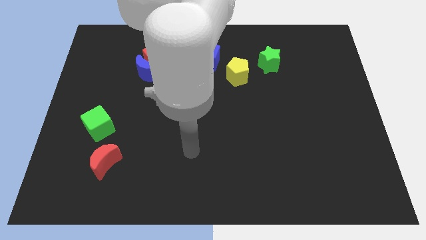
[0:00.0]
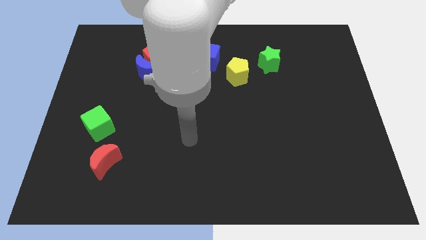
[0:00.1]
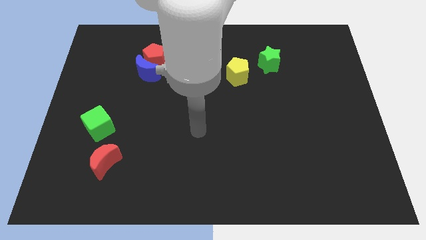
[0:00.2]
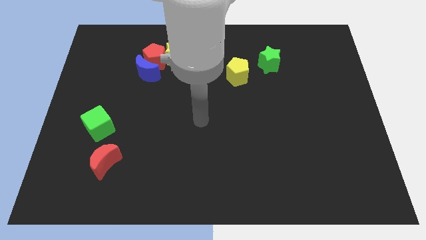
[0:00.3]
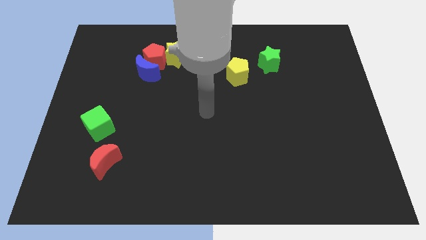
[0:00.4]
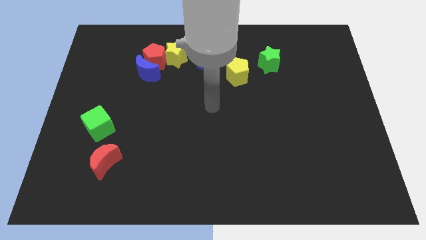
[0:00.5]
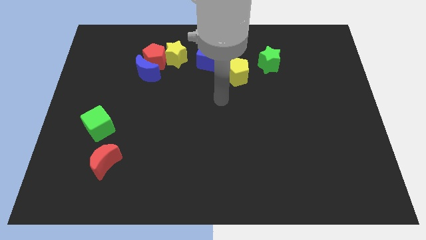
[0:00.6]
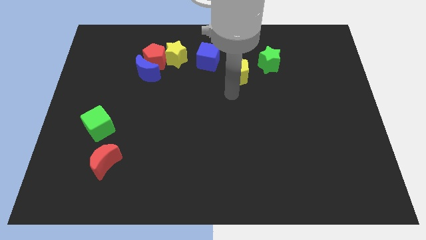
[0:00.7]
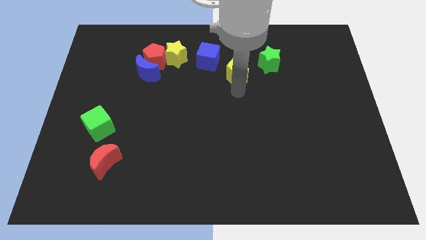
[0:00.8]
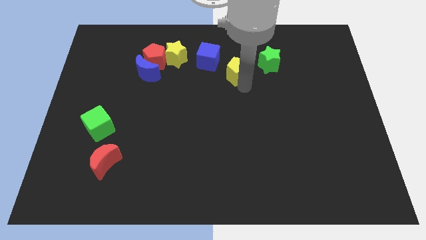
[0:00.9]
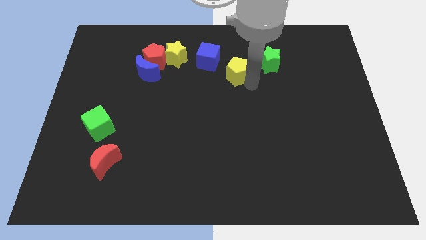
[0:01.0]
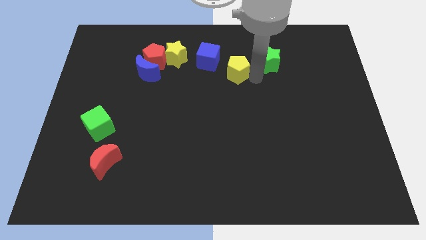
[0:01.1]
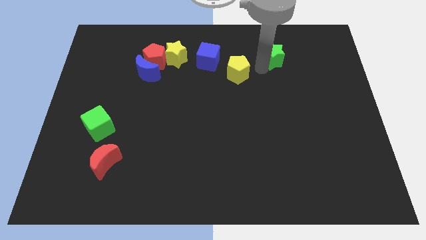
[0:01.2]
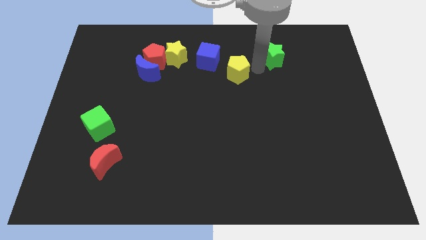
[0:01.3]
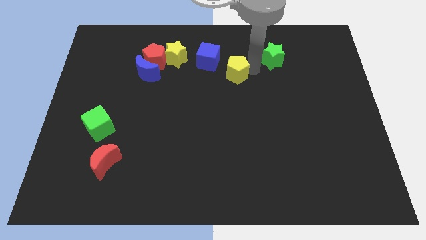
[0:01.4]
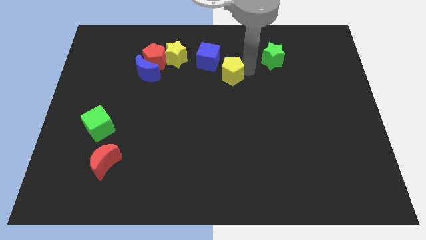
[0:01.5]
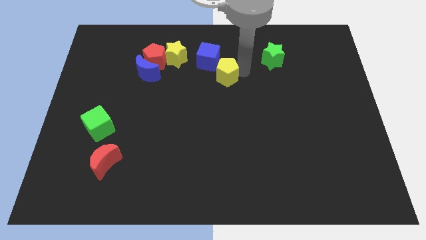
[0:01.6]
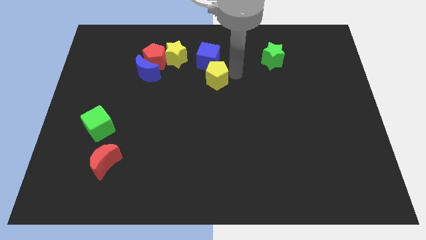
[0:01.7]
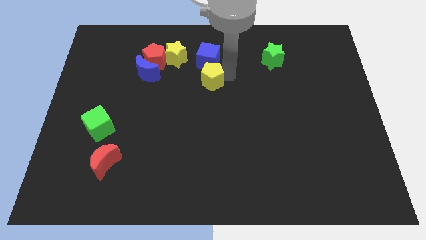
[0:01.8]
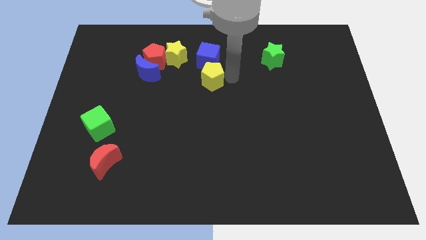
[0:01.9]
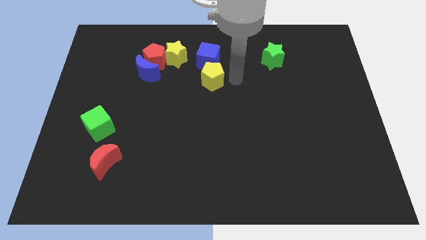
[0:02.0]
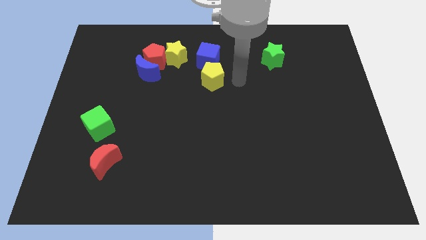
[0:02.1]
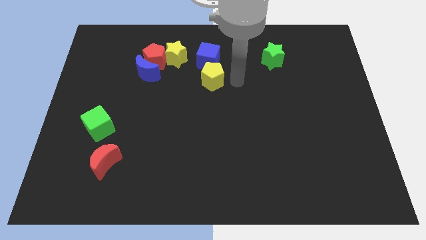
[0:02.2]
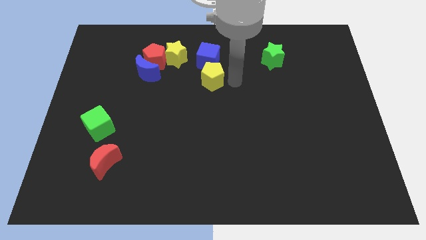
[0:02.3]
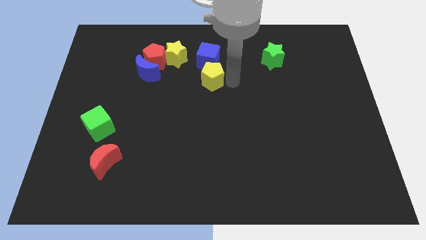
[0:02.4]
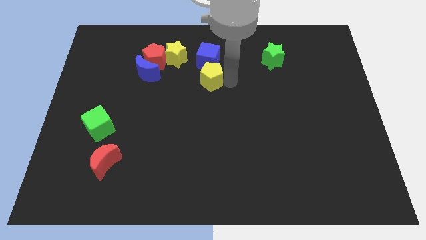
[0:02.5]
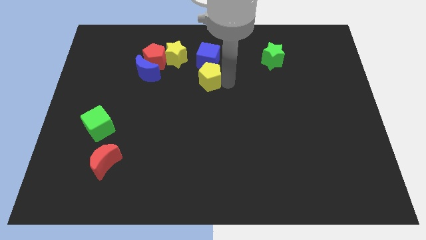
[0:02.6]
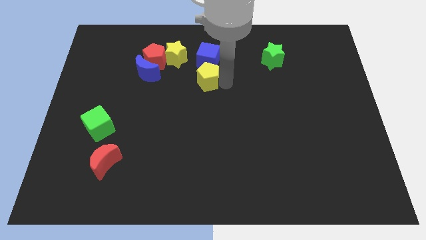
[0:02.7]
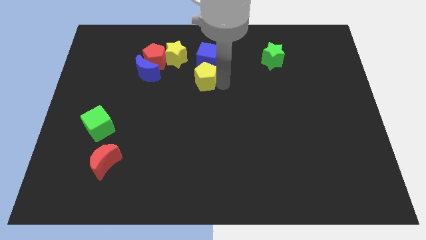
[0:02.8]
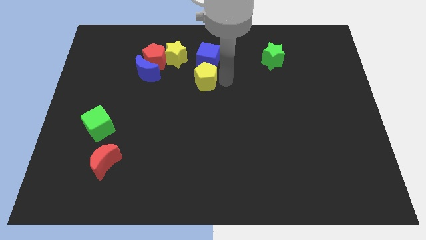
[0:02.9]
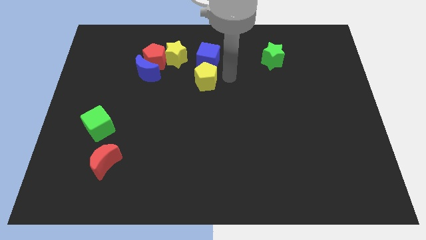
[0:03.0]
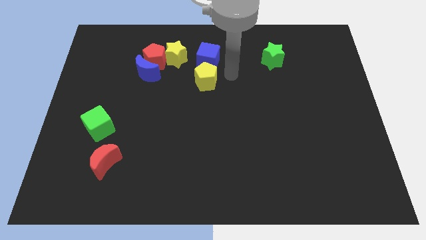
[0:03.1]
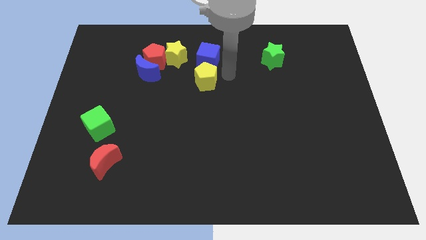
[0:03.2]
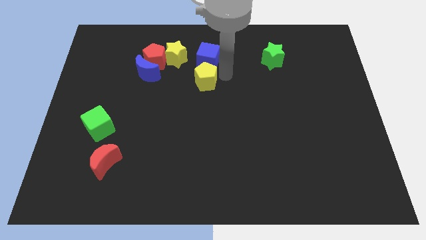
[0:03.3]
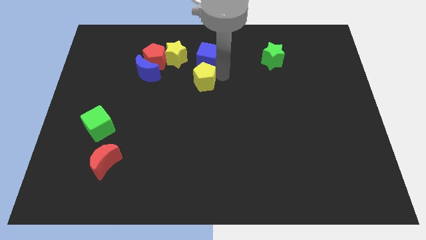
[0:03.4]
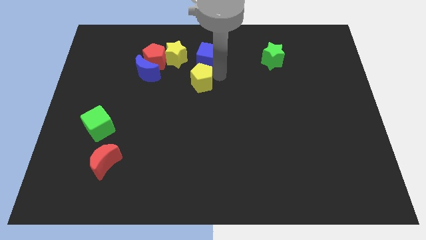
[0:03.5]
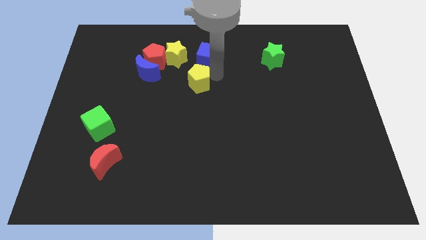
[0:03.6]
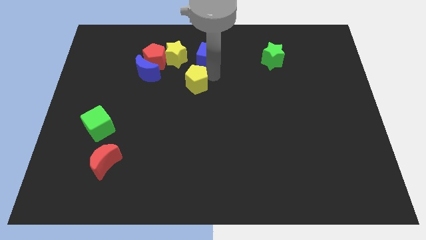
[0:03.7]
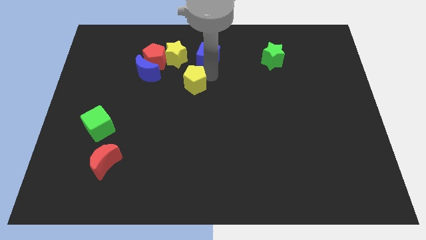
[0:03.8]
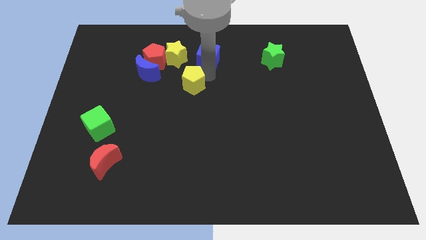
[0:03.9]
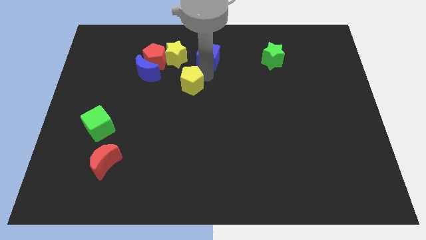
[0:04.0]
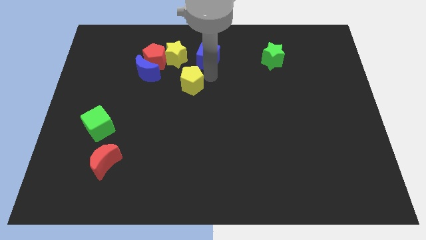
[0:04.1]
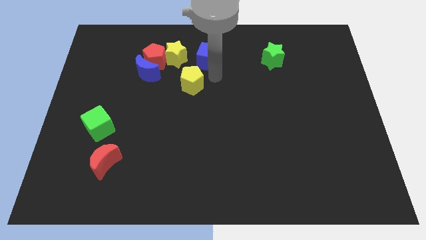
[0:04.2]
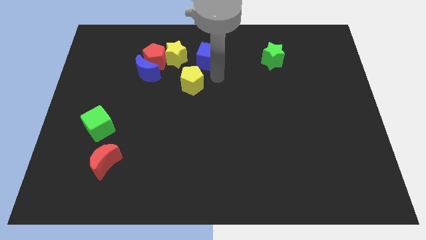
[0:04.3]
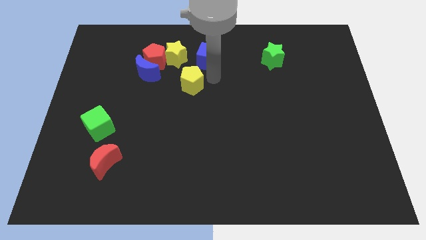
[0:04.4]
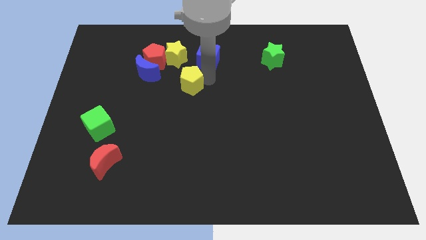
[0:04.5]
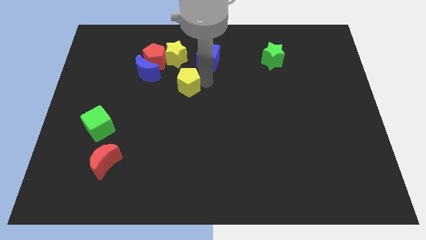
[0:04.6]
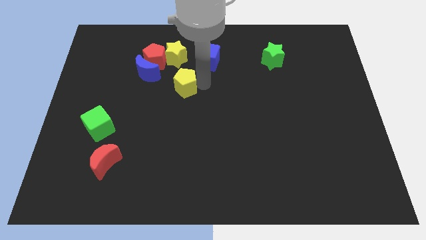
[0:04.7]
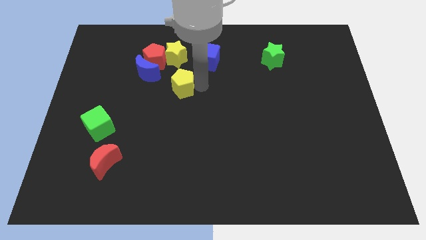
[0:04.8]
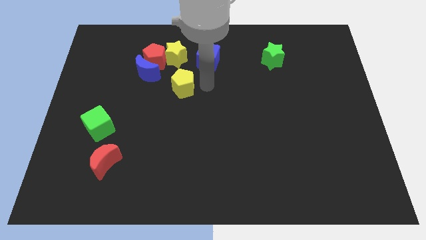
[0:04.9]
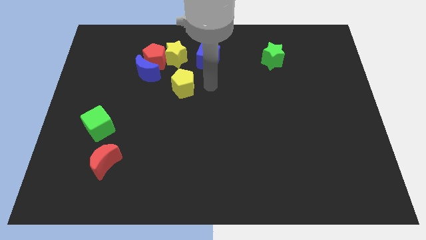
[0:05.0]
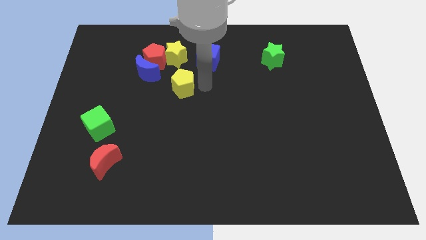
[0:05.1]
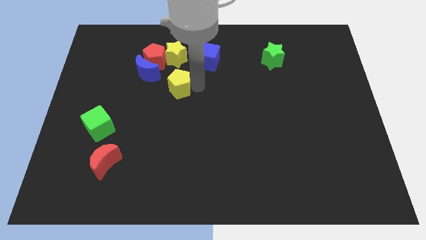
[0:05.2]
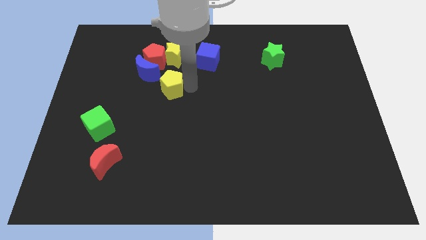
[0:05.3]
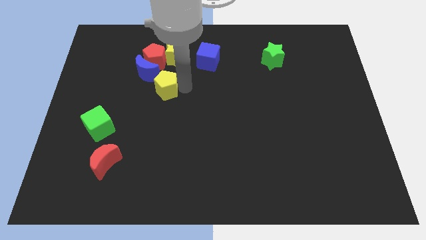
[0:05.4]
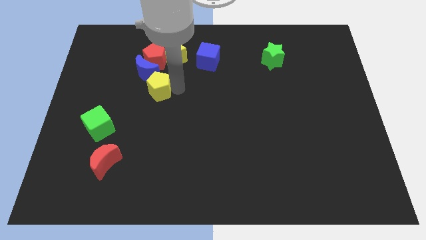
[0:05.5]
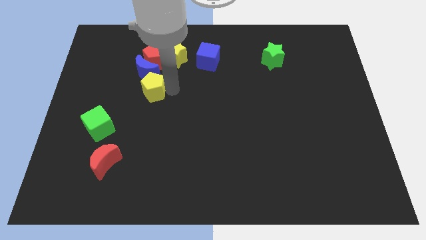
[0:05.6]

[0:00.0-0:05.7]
push the yellow pentagon to the left

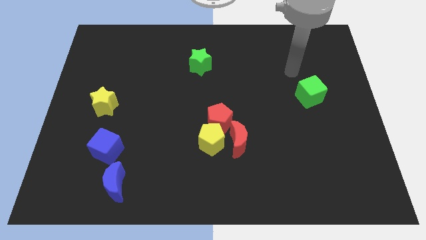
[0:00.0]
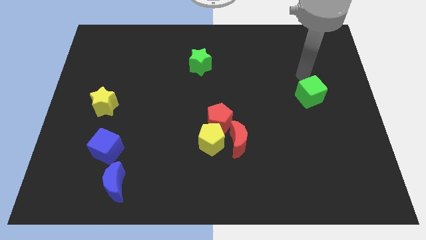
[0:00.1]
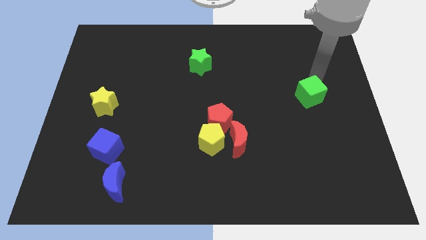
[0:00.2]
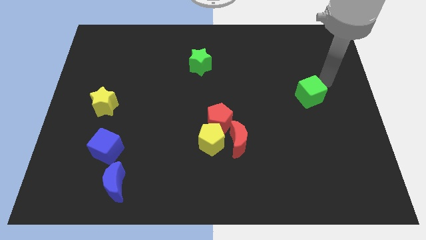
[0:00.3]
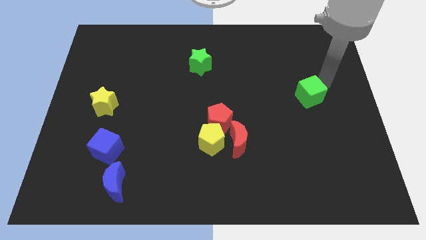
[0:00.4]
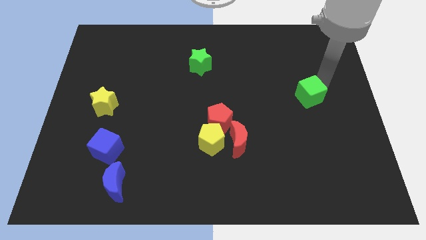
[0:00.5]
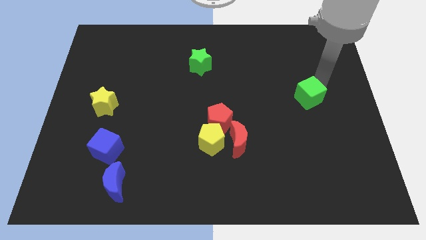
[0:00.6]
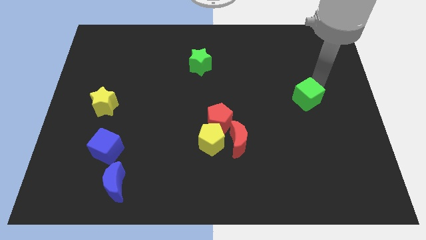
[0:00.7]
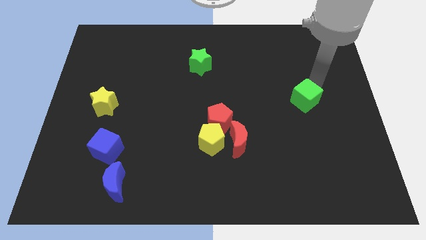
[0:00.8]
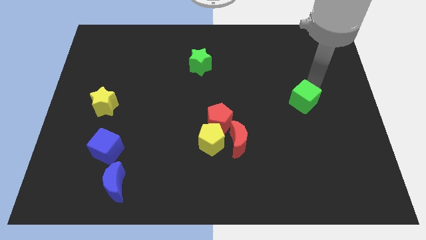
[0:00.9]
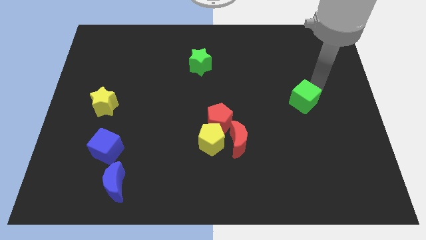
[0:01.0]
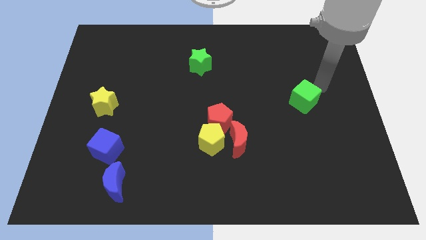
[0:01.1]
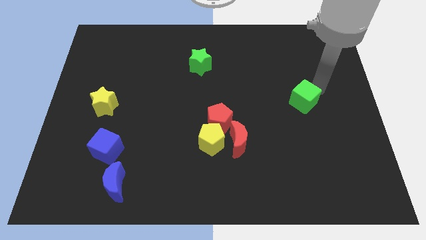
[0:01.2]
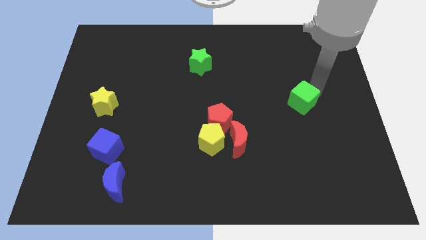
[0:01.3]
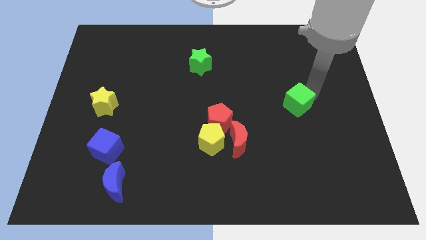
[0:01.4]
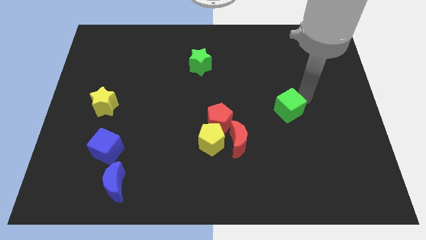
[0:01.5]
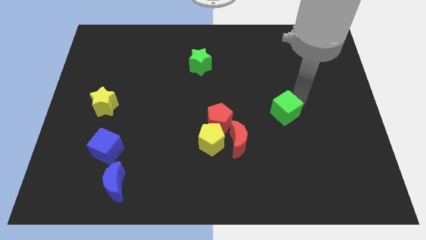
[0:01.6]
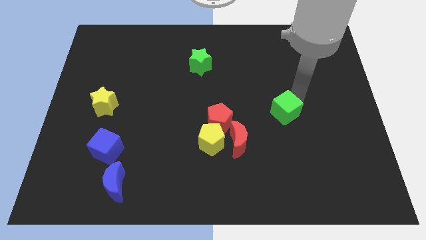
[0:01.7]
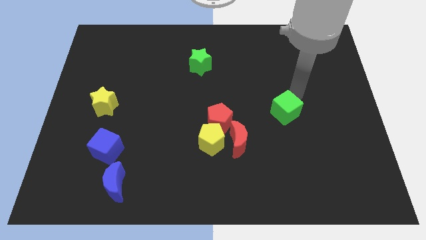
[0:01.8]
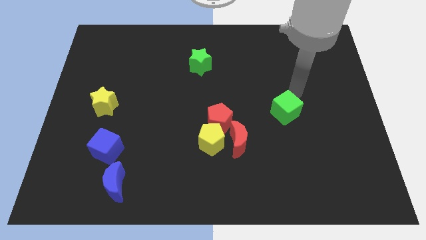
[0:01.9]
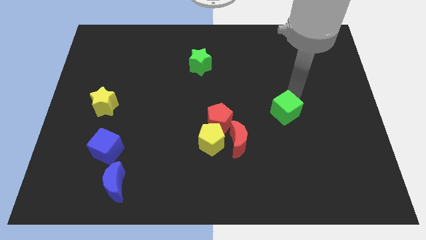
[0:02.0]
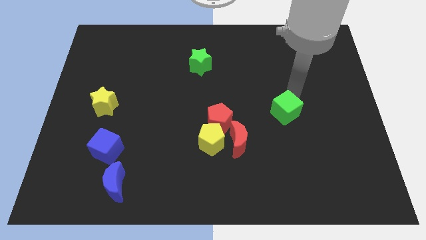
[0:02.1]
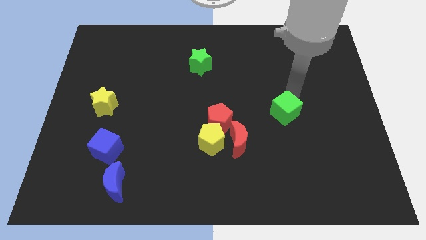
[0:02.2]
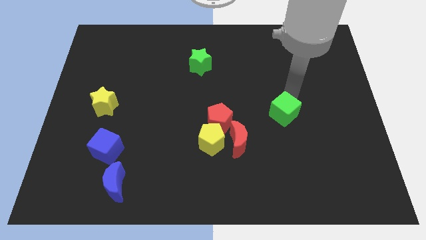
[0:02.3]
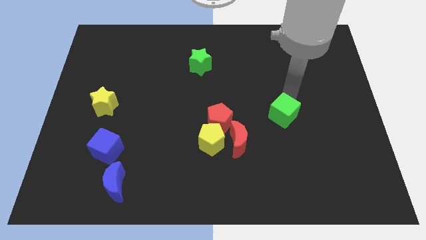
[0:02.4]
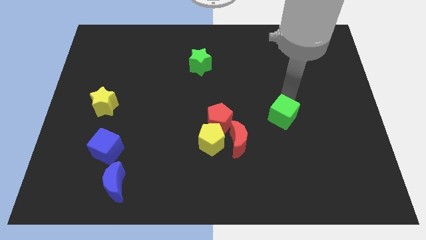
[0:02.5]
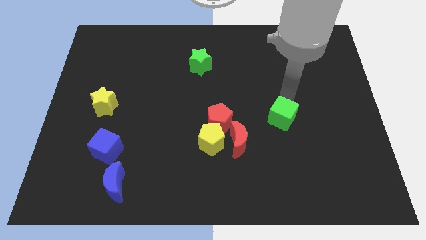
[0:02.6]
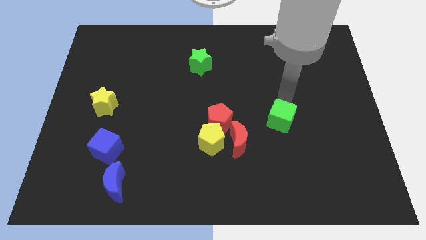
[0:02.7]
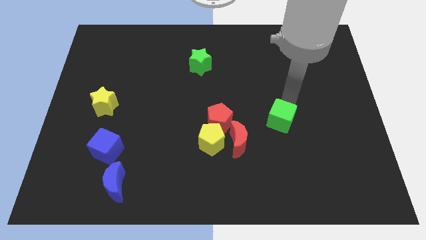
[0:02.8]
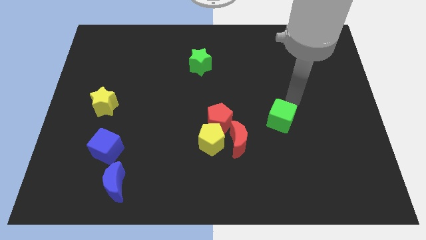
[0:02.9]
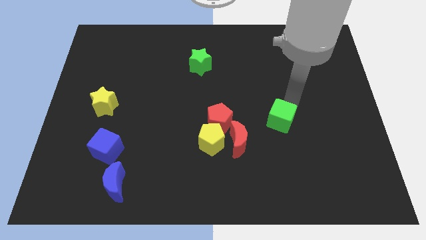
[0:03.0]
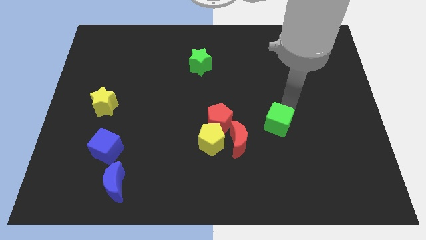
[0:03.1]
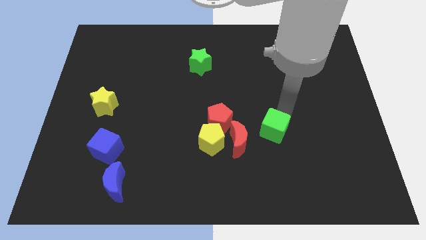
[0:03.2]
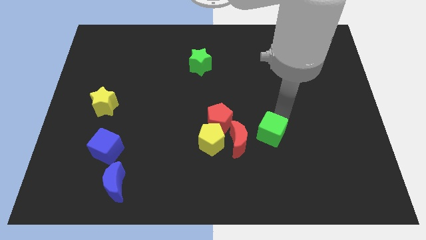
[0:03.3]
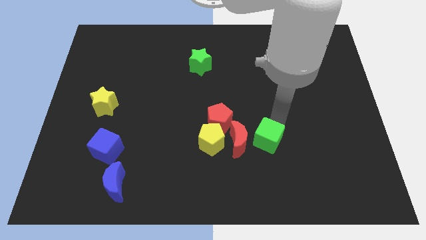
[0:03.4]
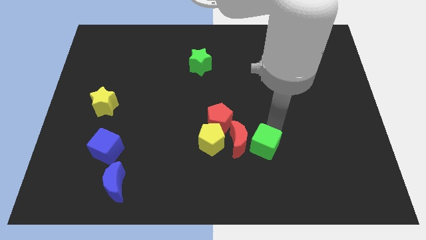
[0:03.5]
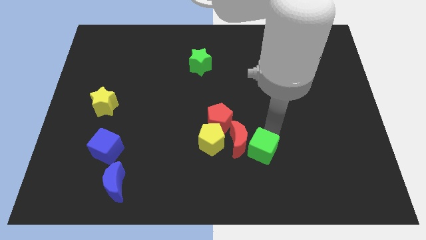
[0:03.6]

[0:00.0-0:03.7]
move the green cube down and then to the left
